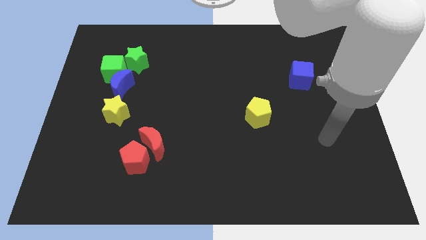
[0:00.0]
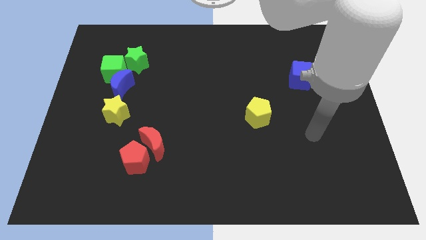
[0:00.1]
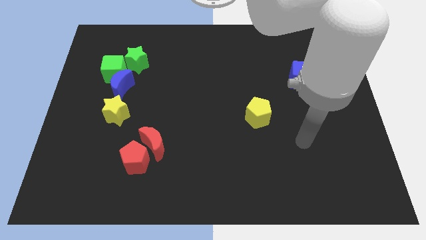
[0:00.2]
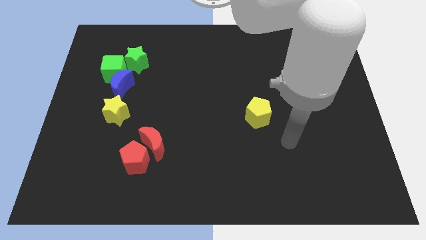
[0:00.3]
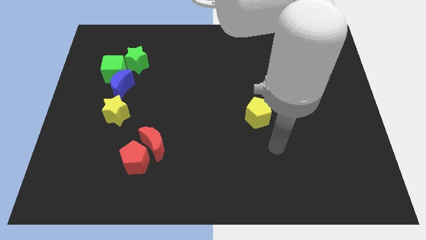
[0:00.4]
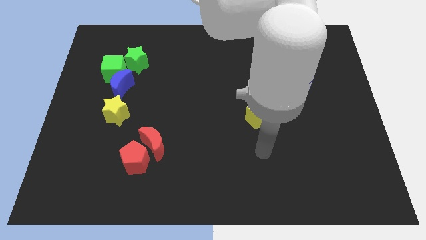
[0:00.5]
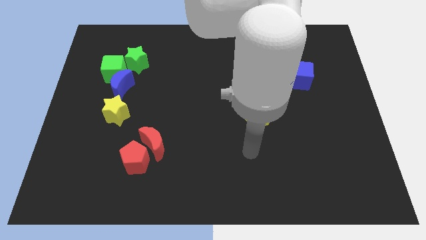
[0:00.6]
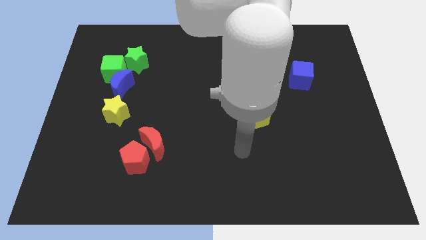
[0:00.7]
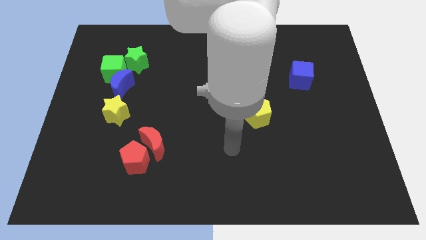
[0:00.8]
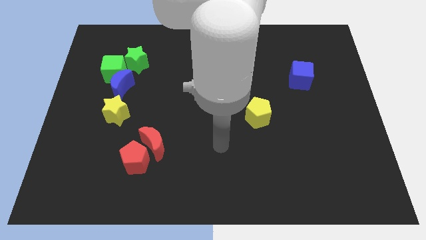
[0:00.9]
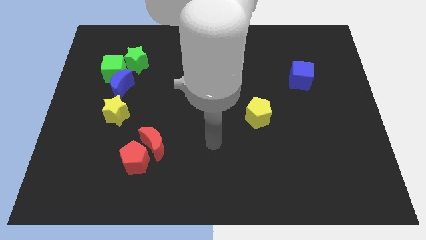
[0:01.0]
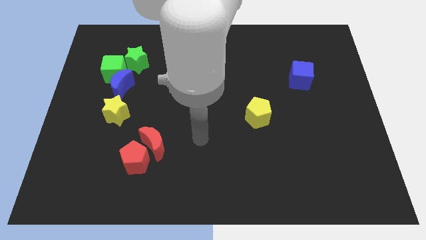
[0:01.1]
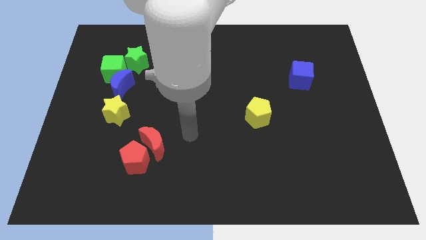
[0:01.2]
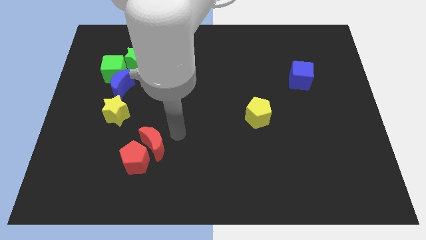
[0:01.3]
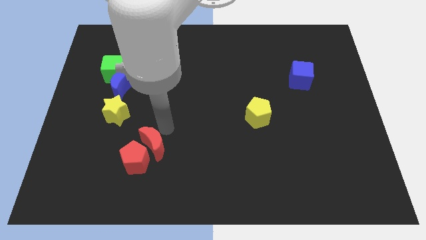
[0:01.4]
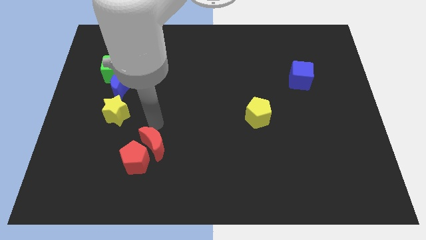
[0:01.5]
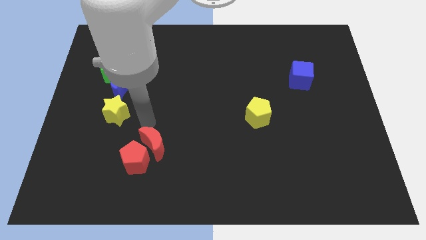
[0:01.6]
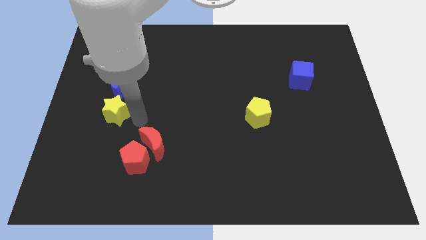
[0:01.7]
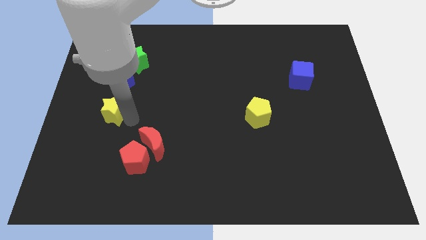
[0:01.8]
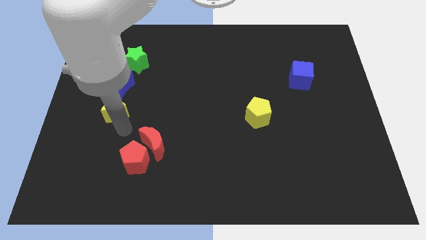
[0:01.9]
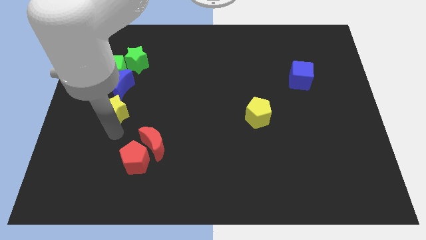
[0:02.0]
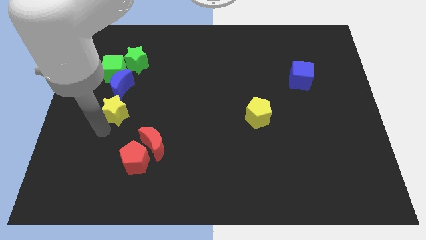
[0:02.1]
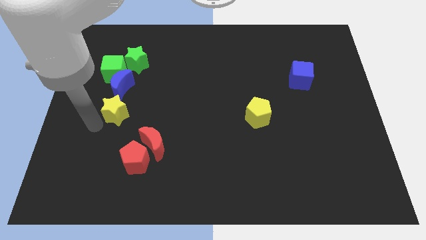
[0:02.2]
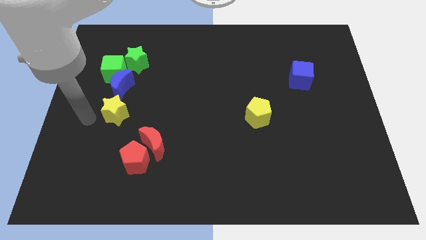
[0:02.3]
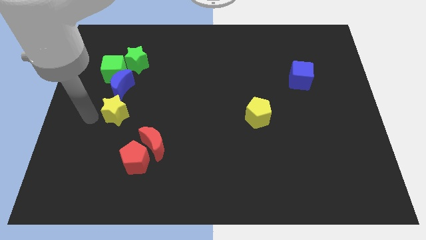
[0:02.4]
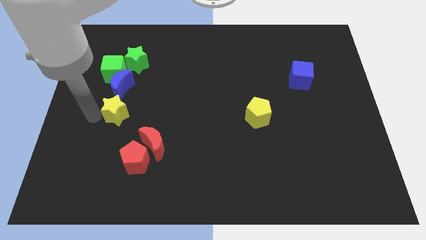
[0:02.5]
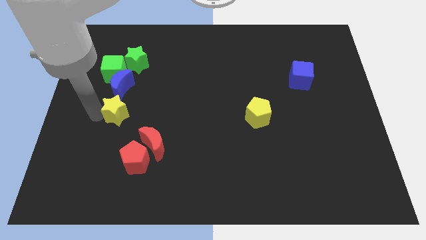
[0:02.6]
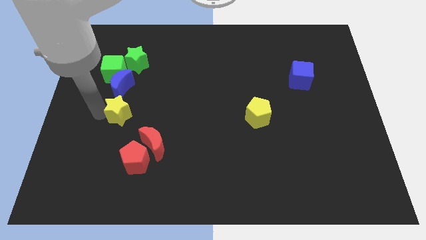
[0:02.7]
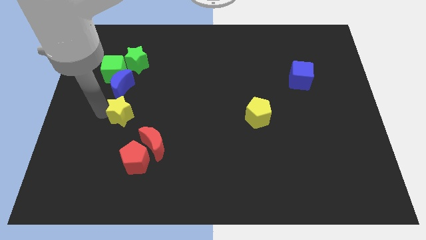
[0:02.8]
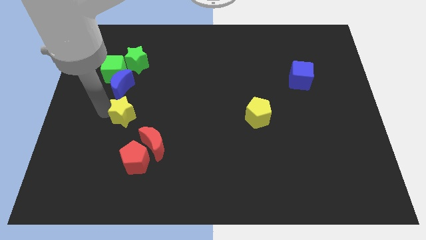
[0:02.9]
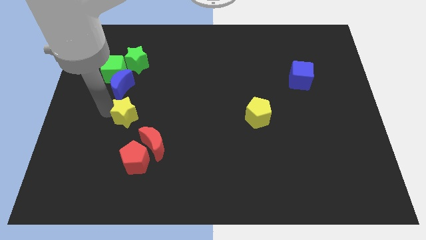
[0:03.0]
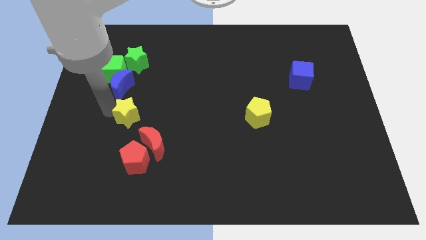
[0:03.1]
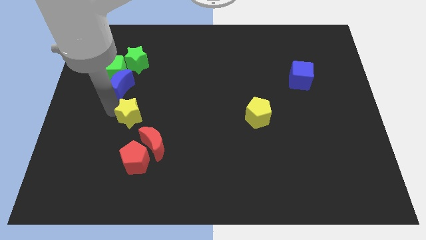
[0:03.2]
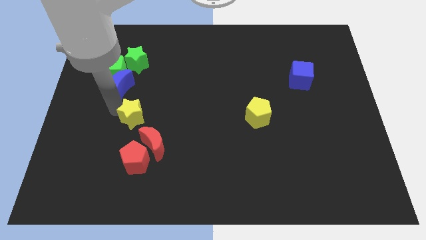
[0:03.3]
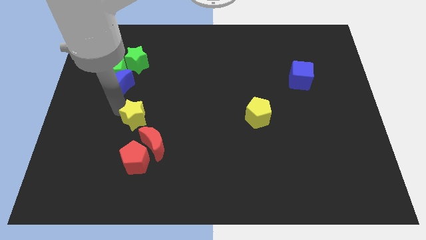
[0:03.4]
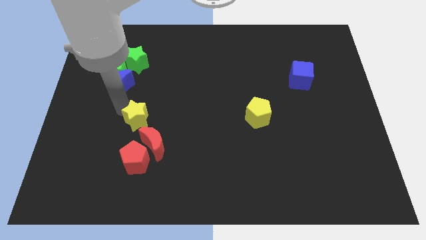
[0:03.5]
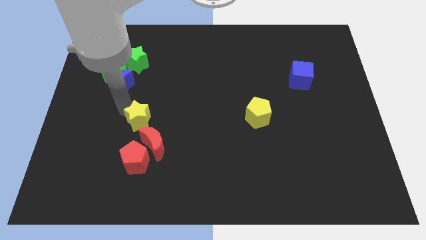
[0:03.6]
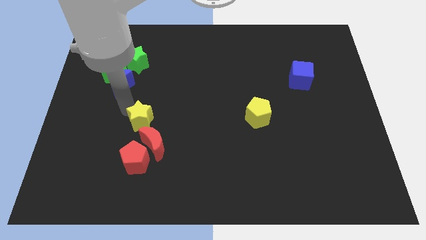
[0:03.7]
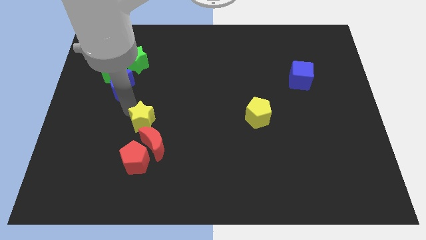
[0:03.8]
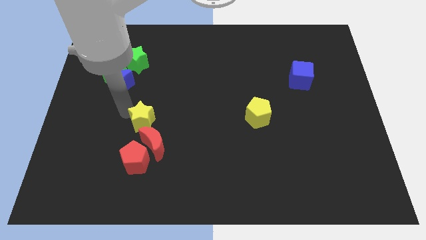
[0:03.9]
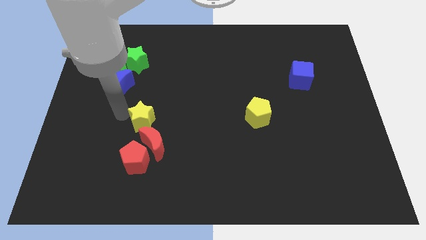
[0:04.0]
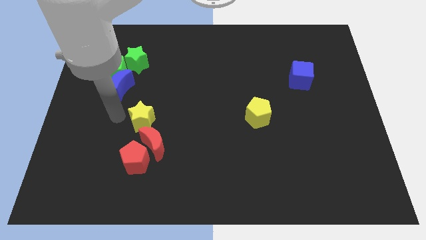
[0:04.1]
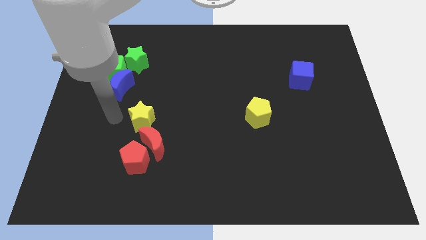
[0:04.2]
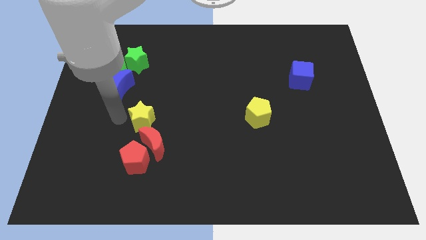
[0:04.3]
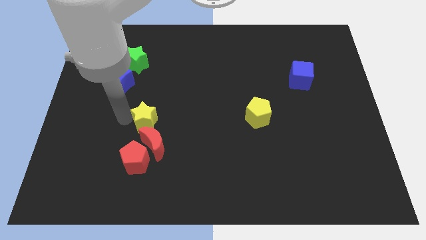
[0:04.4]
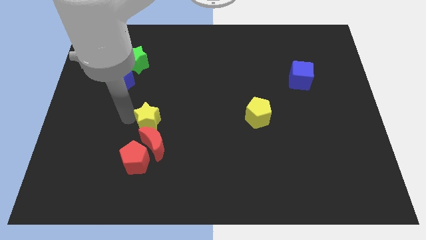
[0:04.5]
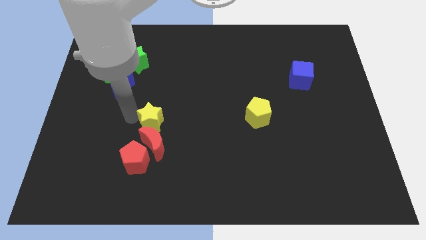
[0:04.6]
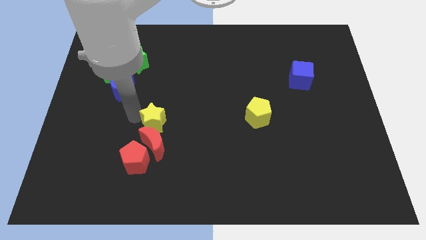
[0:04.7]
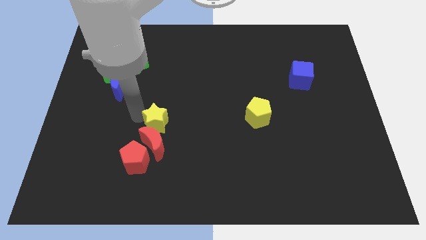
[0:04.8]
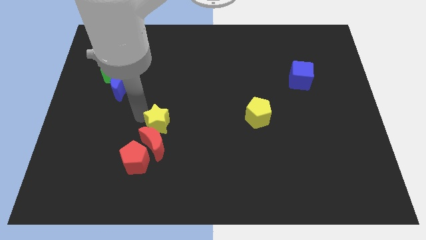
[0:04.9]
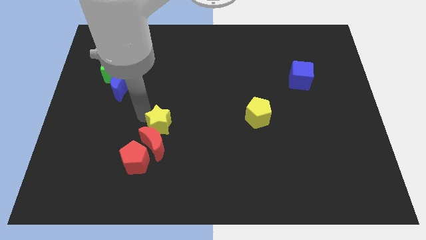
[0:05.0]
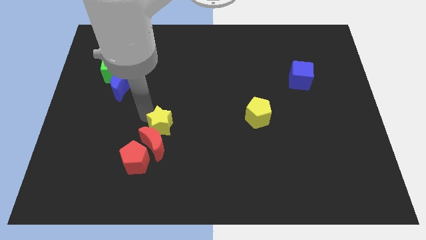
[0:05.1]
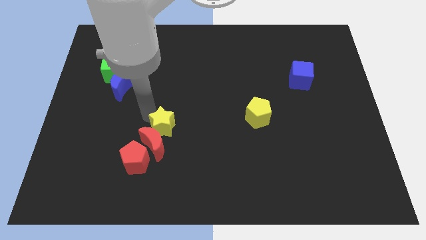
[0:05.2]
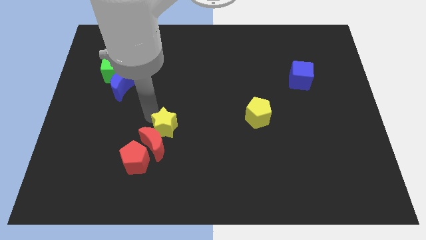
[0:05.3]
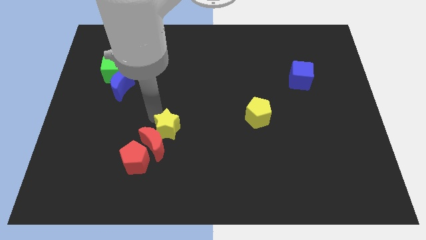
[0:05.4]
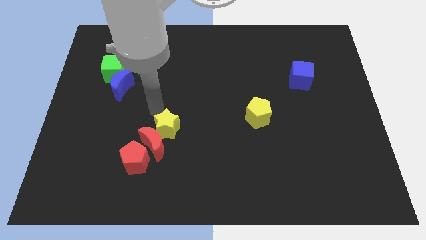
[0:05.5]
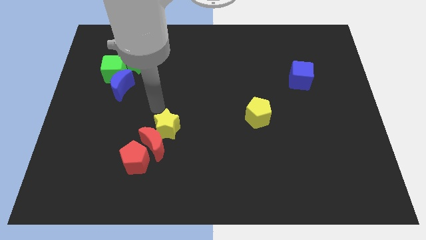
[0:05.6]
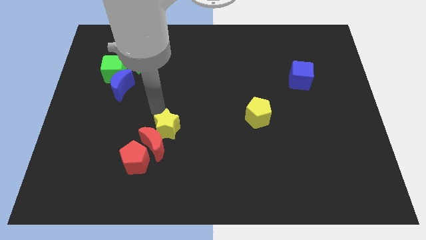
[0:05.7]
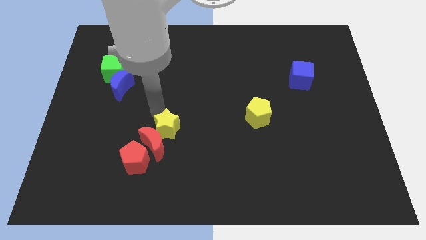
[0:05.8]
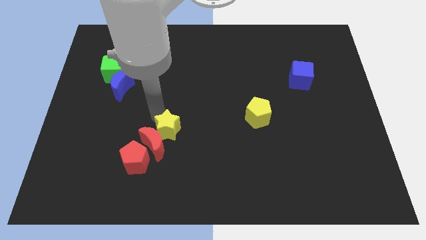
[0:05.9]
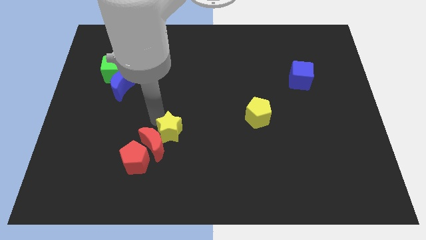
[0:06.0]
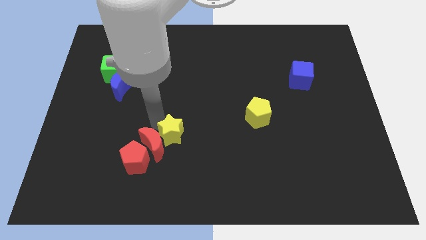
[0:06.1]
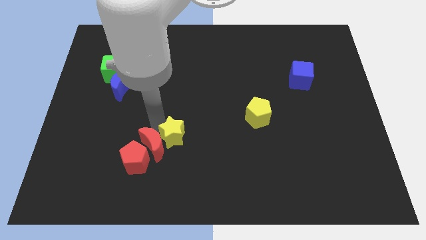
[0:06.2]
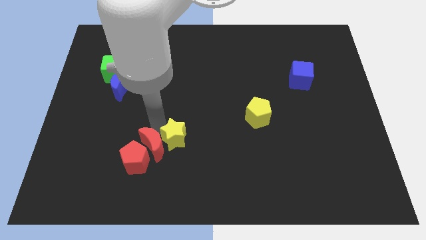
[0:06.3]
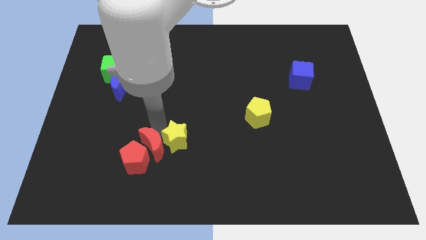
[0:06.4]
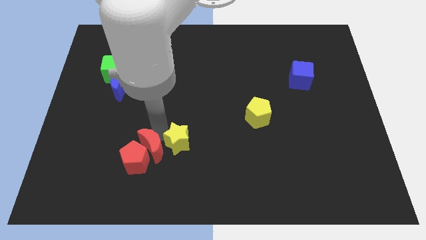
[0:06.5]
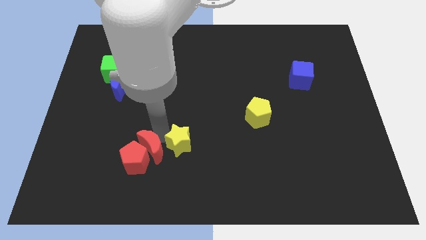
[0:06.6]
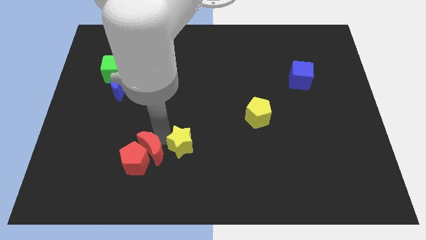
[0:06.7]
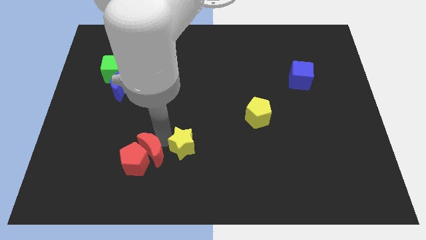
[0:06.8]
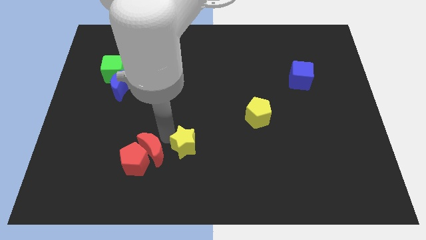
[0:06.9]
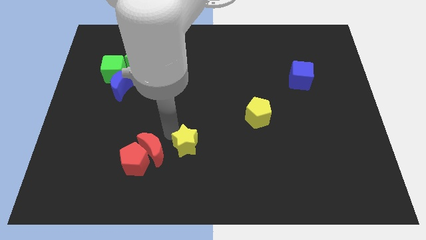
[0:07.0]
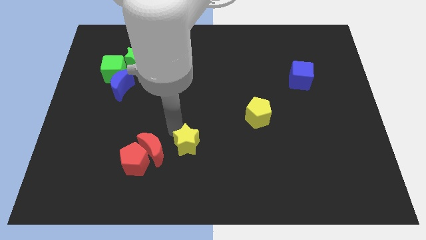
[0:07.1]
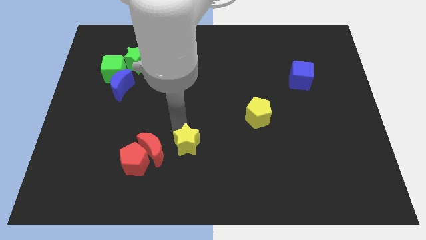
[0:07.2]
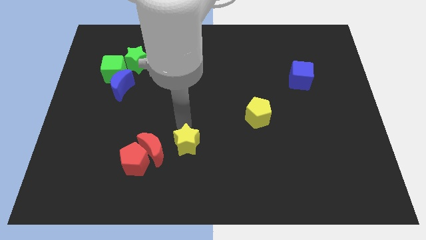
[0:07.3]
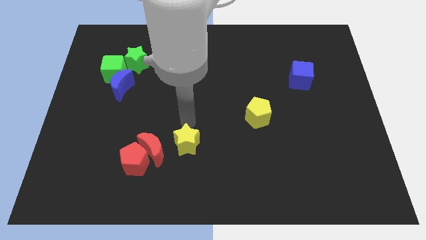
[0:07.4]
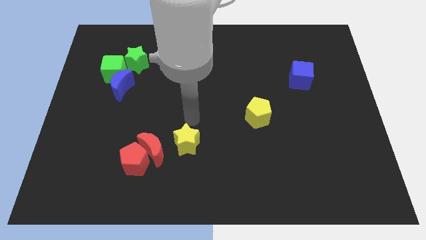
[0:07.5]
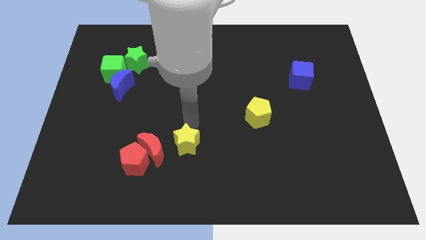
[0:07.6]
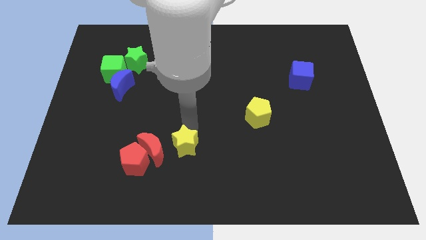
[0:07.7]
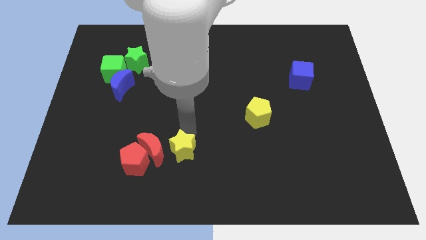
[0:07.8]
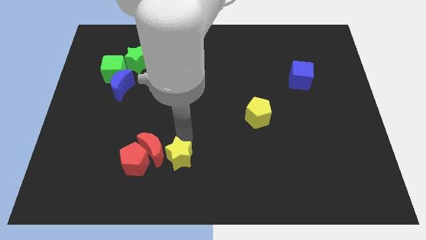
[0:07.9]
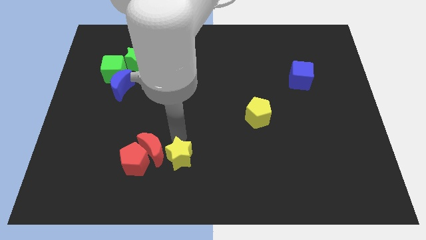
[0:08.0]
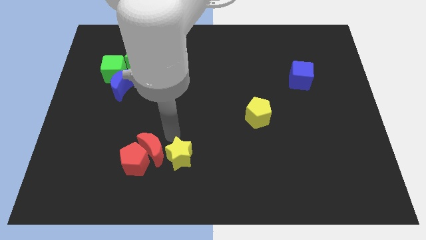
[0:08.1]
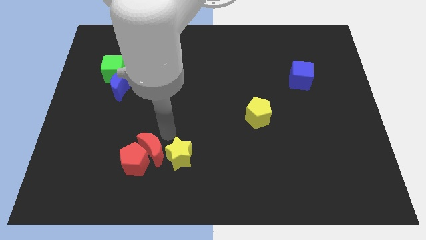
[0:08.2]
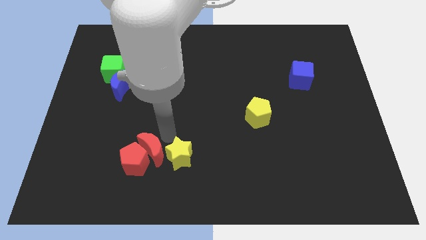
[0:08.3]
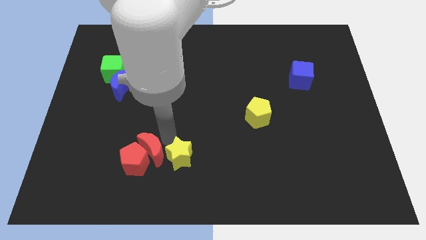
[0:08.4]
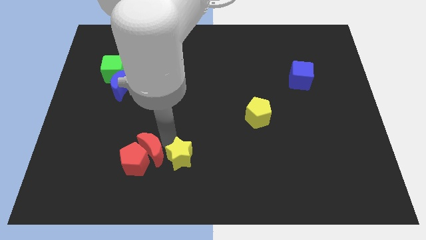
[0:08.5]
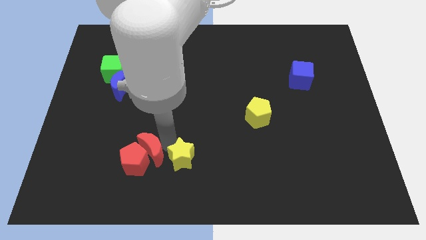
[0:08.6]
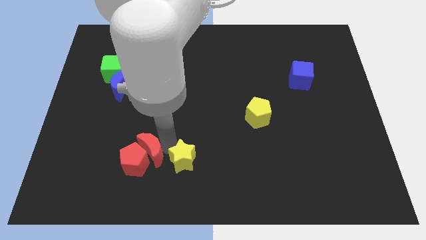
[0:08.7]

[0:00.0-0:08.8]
move the yellow star to the bottom side
